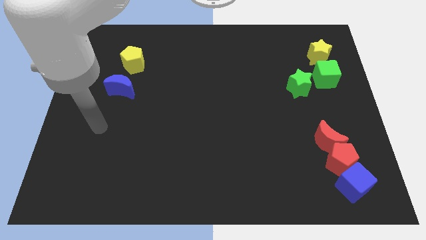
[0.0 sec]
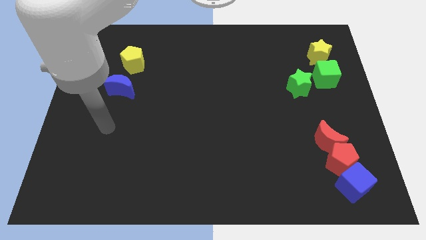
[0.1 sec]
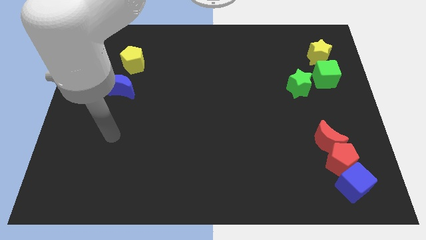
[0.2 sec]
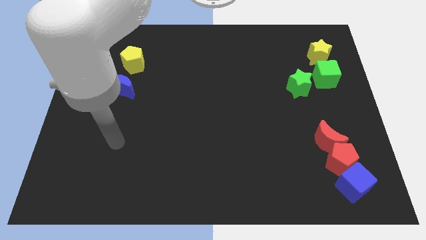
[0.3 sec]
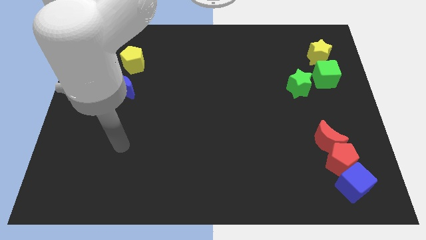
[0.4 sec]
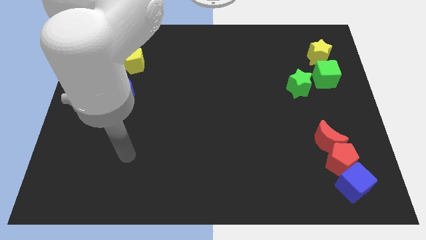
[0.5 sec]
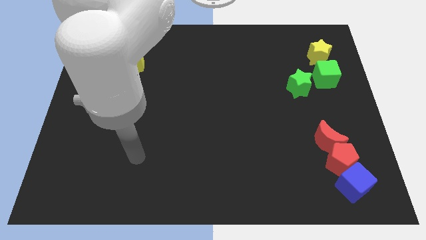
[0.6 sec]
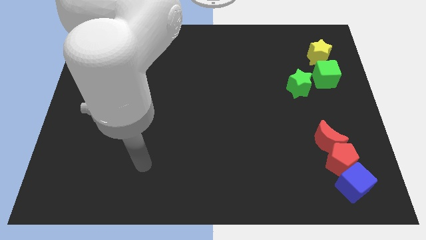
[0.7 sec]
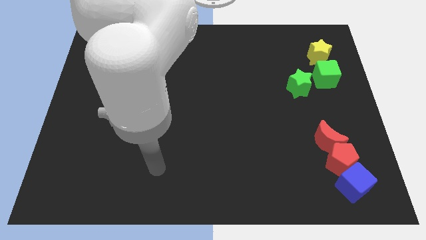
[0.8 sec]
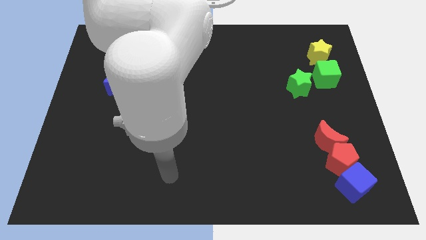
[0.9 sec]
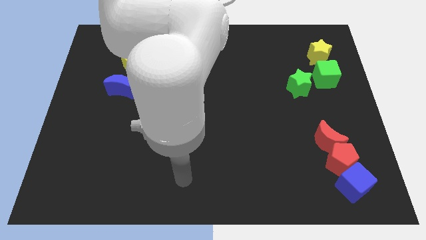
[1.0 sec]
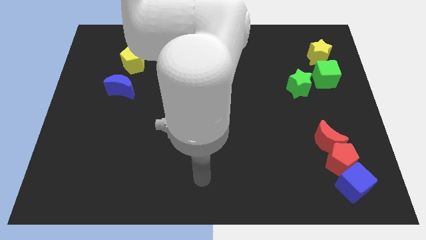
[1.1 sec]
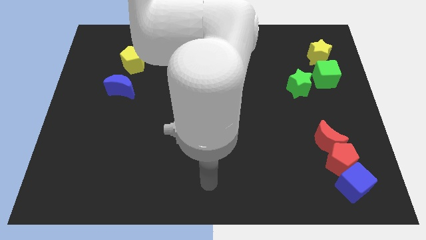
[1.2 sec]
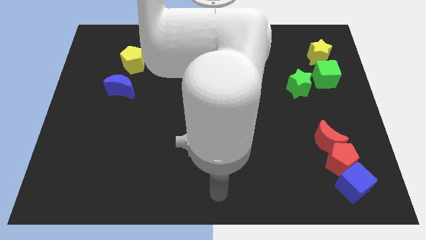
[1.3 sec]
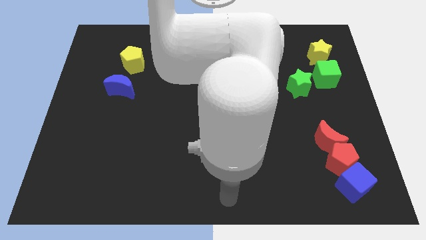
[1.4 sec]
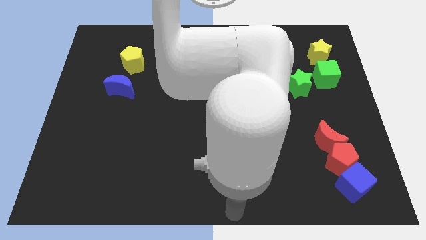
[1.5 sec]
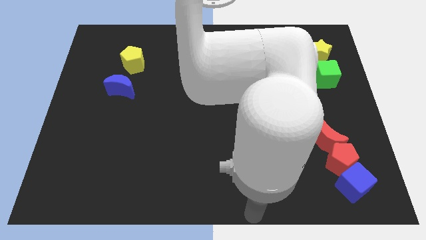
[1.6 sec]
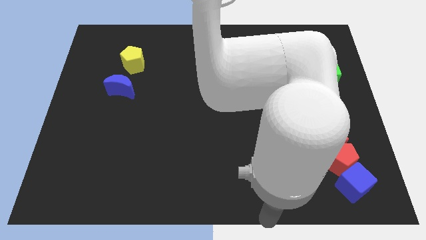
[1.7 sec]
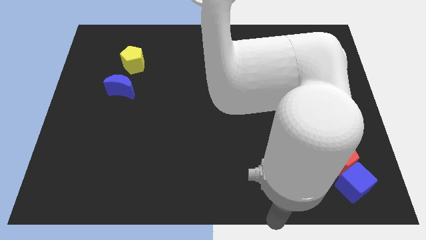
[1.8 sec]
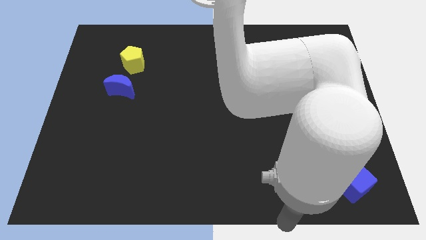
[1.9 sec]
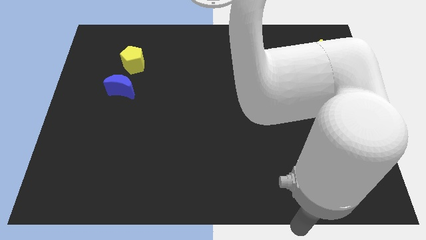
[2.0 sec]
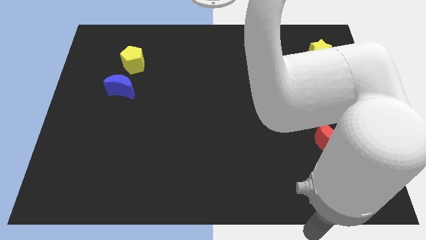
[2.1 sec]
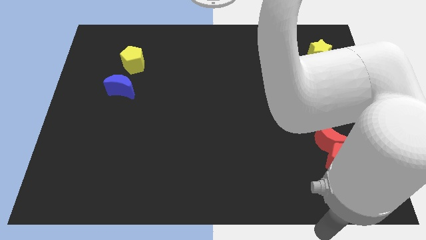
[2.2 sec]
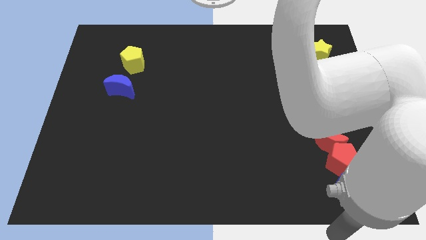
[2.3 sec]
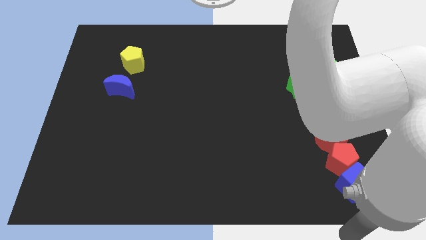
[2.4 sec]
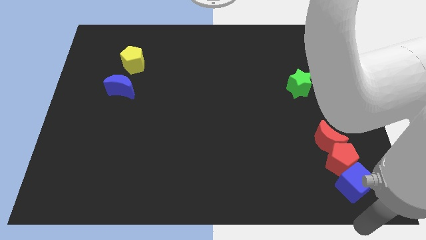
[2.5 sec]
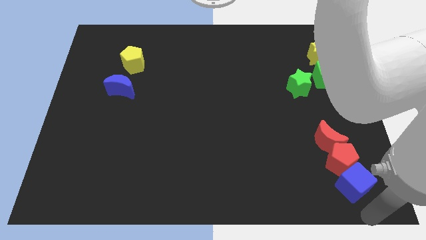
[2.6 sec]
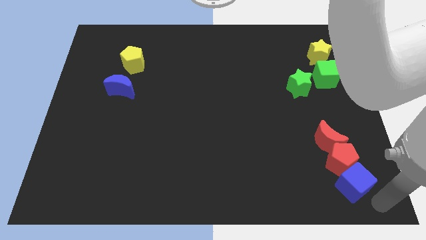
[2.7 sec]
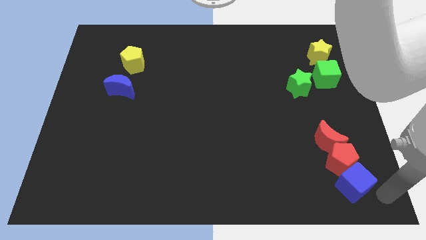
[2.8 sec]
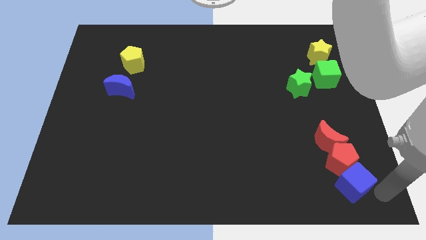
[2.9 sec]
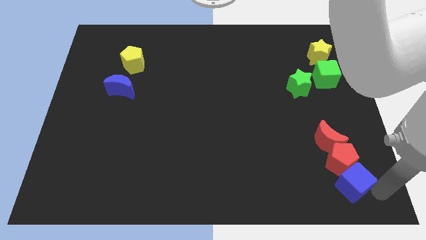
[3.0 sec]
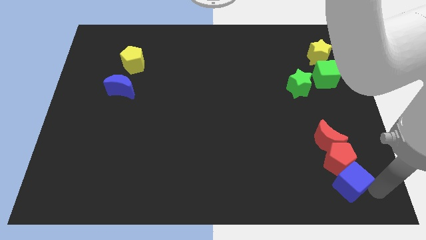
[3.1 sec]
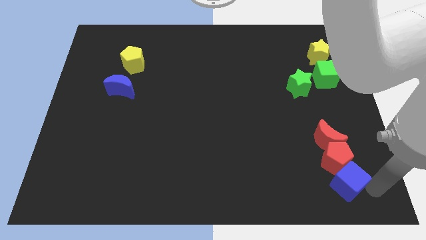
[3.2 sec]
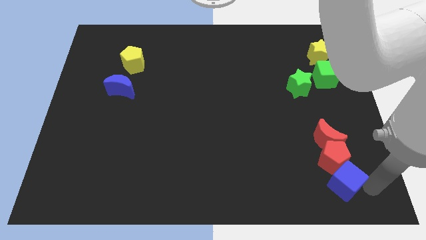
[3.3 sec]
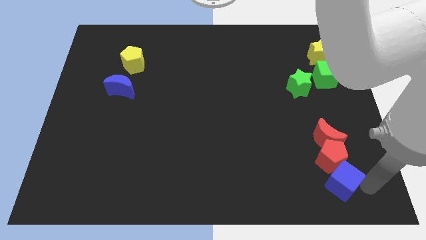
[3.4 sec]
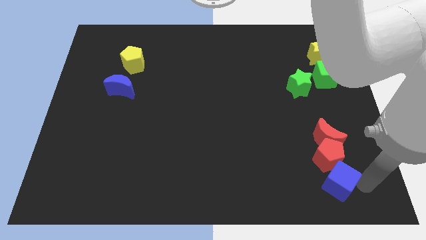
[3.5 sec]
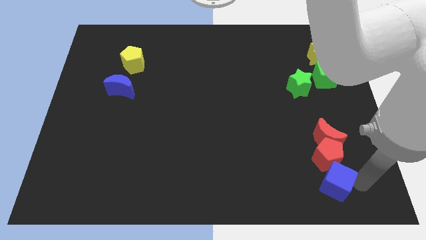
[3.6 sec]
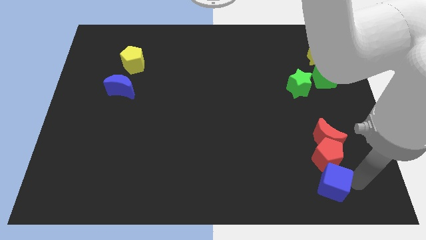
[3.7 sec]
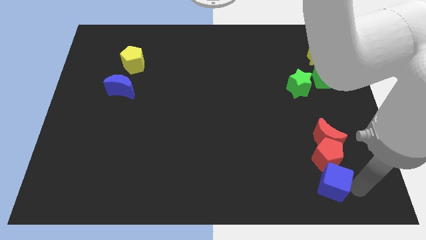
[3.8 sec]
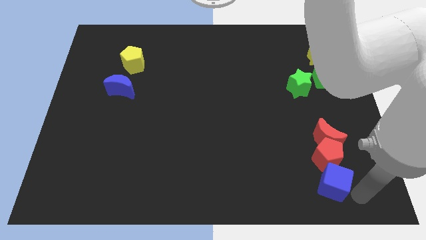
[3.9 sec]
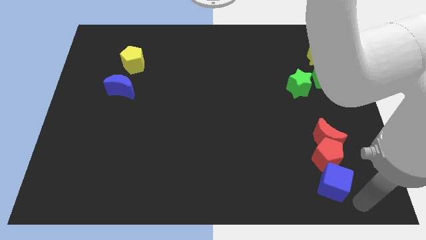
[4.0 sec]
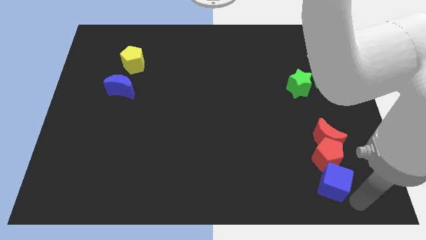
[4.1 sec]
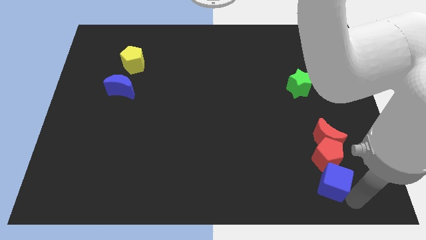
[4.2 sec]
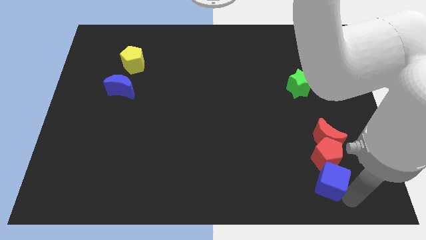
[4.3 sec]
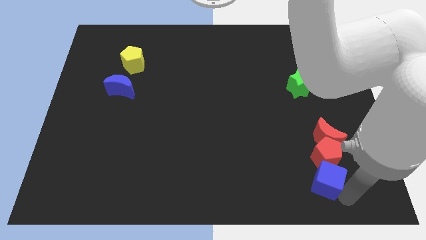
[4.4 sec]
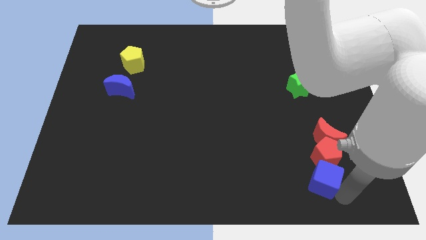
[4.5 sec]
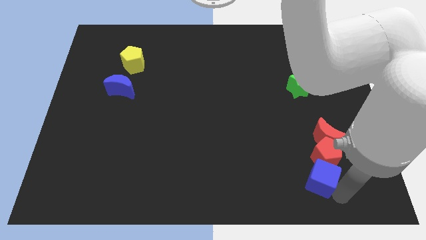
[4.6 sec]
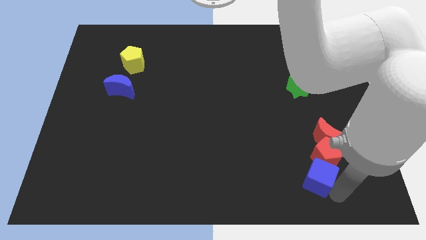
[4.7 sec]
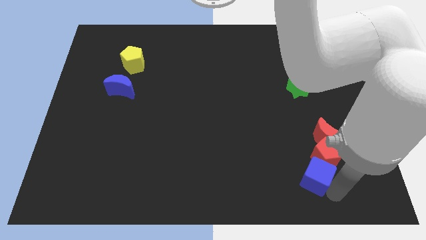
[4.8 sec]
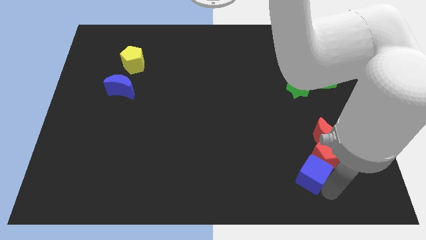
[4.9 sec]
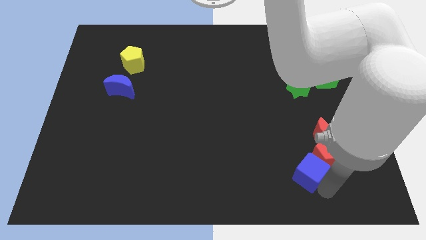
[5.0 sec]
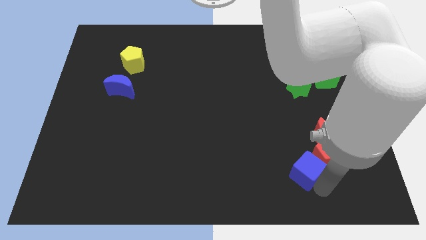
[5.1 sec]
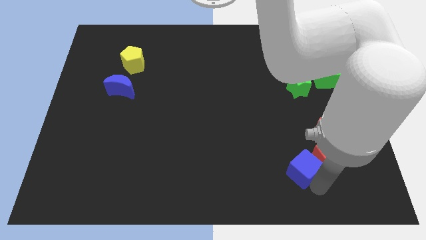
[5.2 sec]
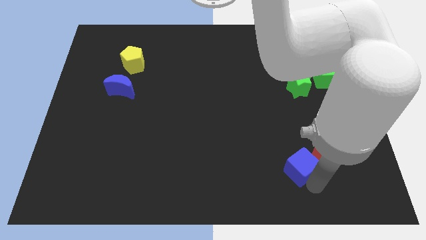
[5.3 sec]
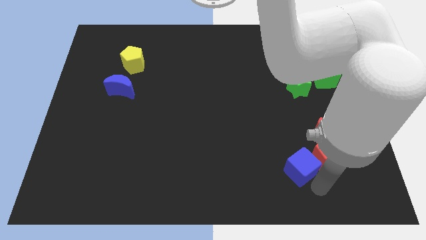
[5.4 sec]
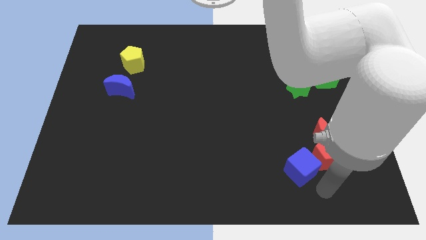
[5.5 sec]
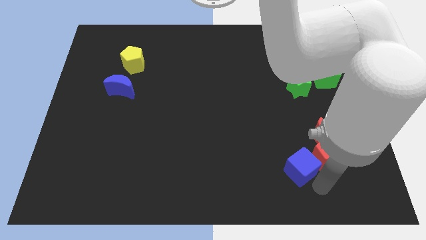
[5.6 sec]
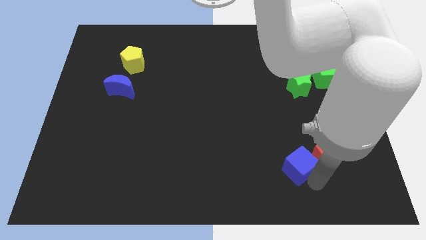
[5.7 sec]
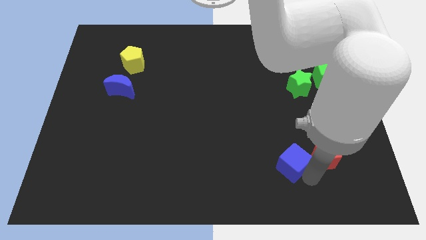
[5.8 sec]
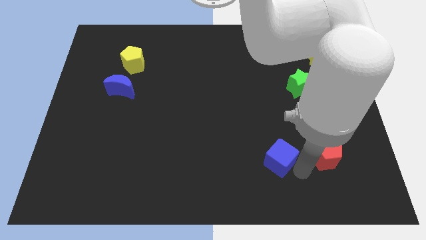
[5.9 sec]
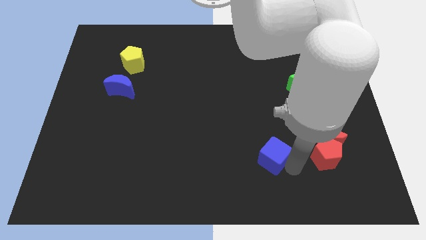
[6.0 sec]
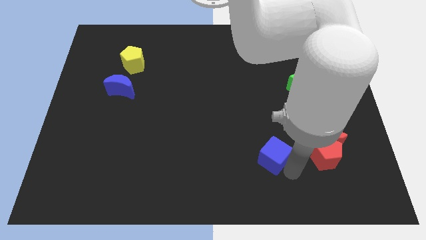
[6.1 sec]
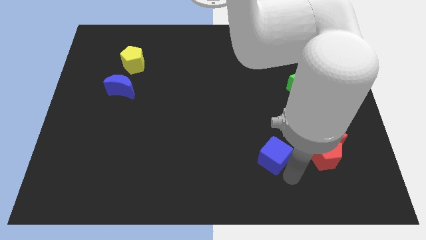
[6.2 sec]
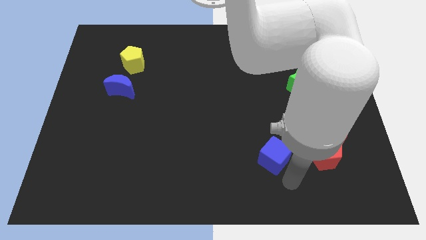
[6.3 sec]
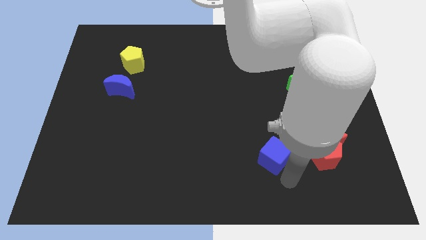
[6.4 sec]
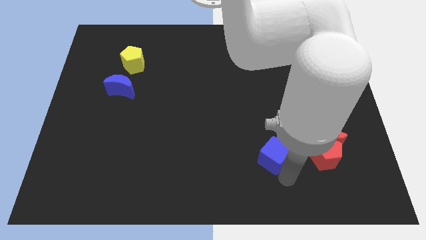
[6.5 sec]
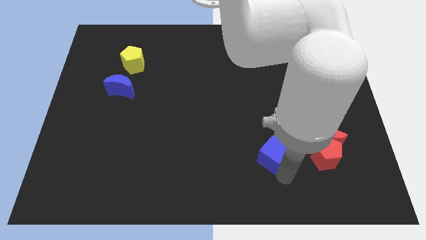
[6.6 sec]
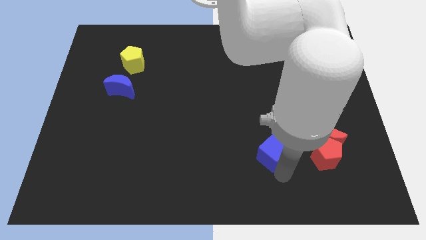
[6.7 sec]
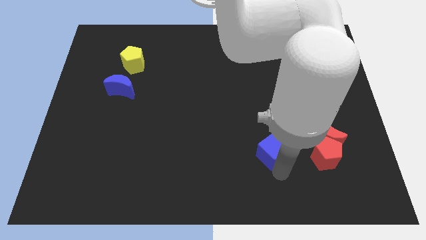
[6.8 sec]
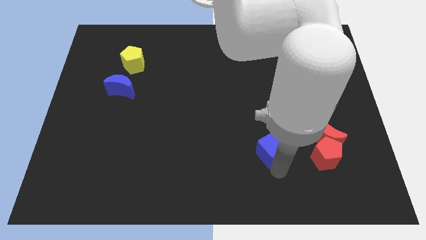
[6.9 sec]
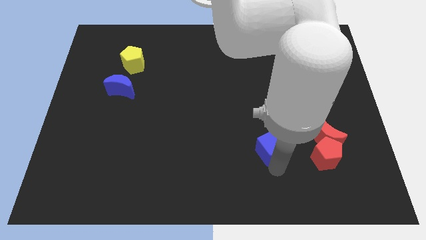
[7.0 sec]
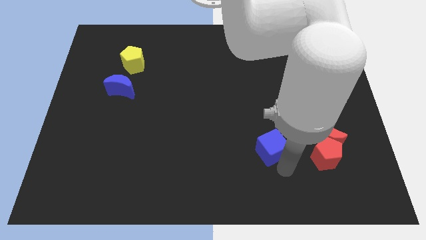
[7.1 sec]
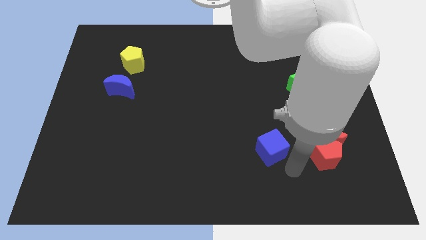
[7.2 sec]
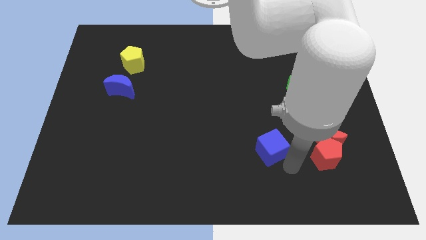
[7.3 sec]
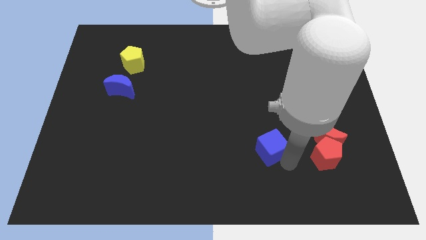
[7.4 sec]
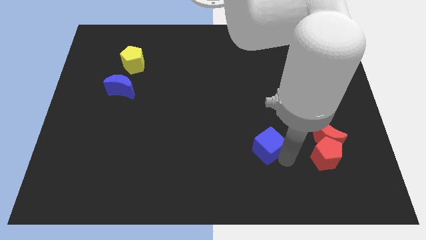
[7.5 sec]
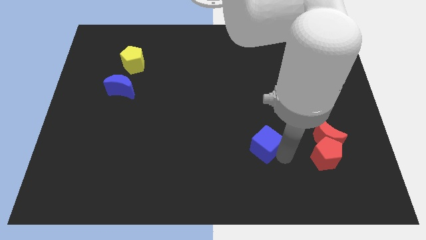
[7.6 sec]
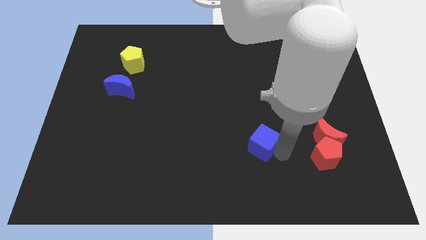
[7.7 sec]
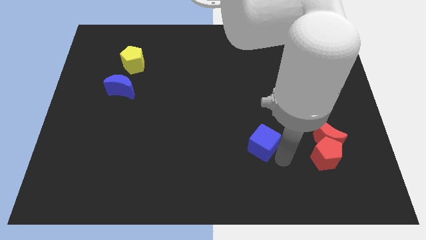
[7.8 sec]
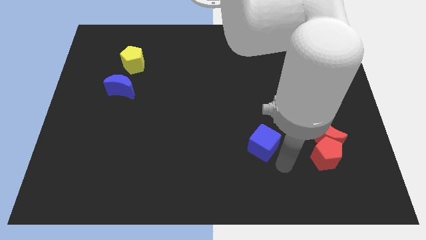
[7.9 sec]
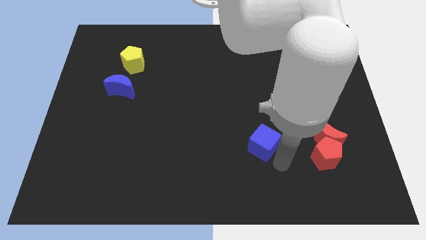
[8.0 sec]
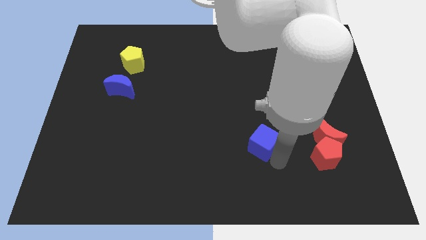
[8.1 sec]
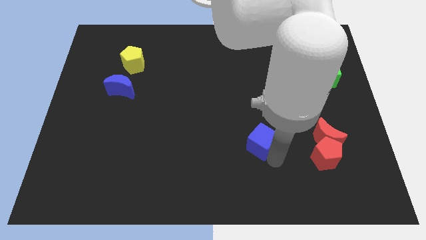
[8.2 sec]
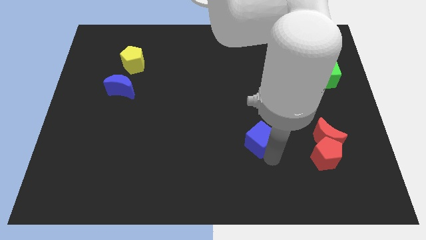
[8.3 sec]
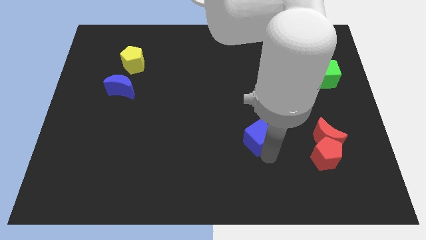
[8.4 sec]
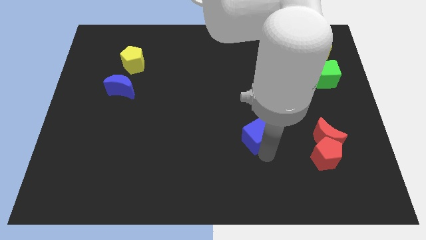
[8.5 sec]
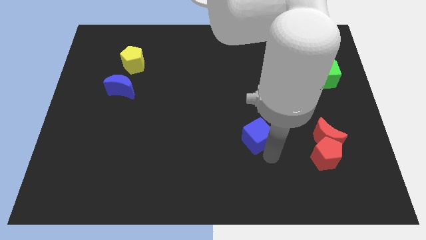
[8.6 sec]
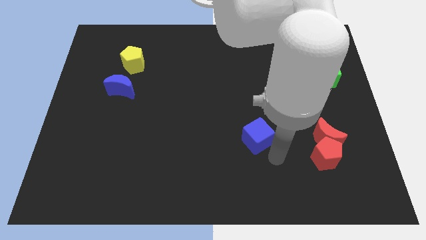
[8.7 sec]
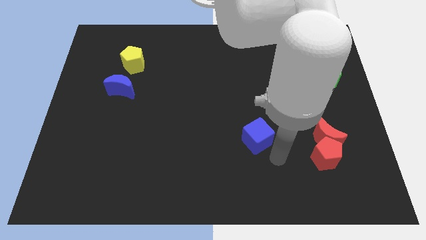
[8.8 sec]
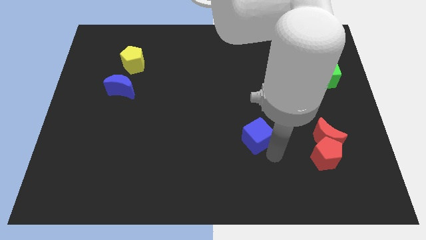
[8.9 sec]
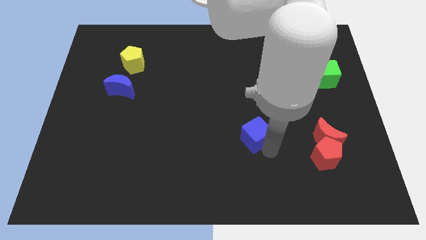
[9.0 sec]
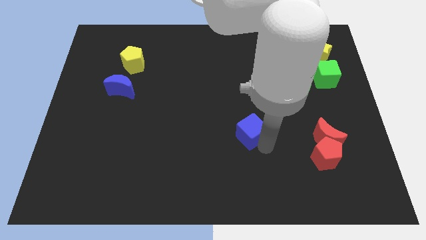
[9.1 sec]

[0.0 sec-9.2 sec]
slide the blue cube to the center
